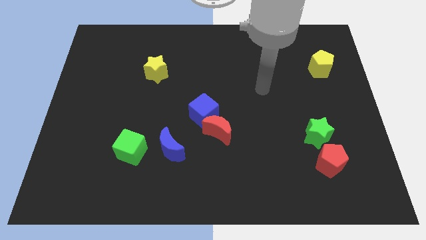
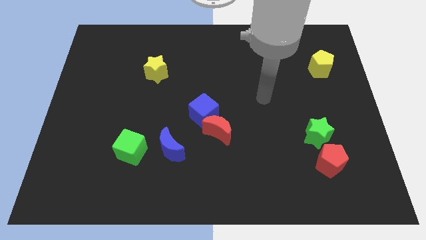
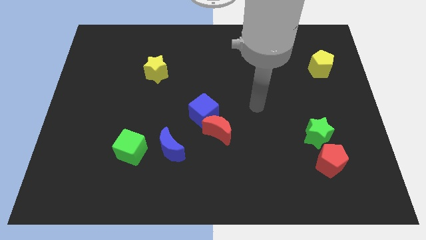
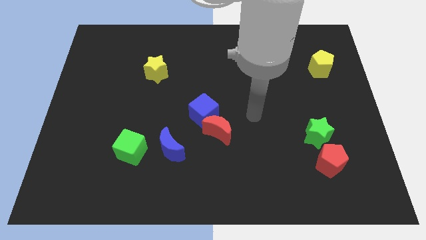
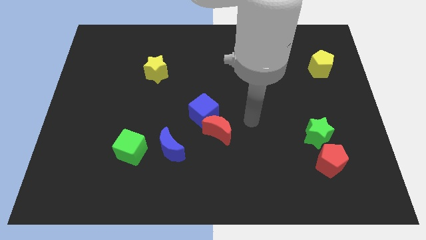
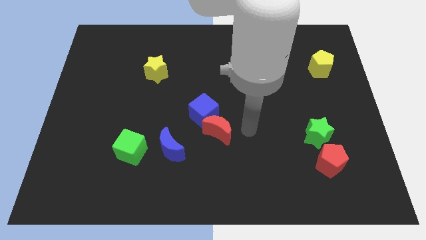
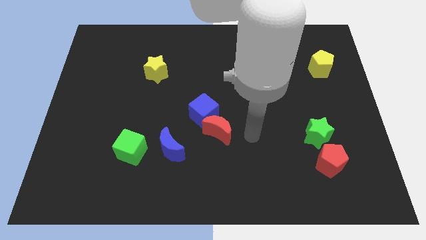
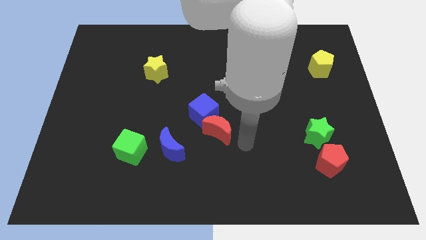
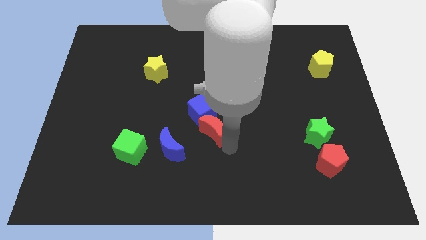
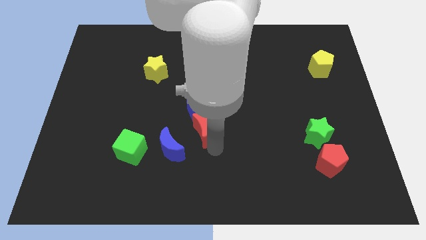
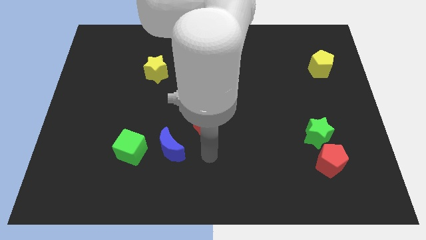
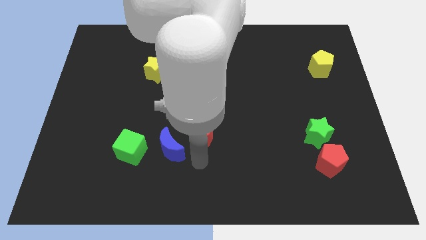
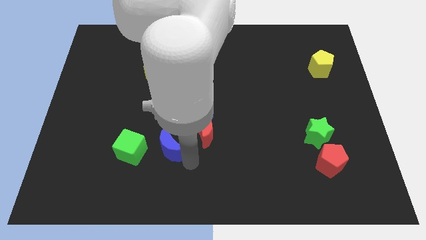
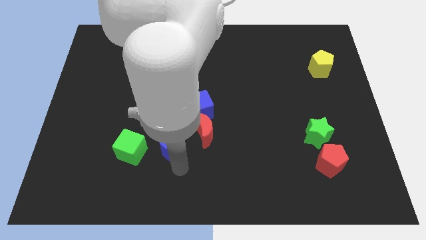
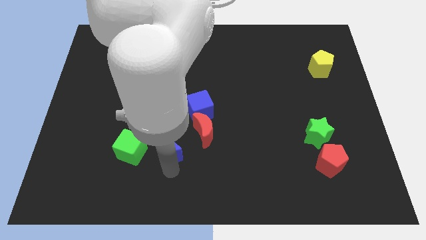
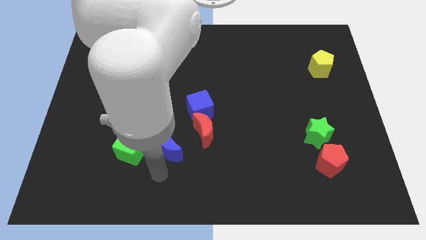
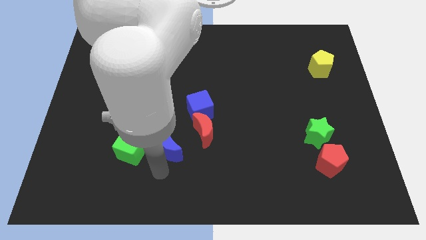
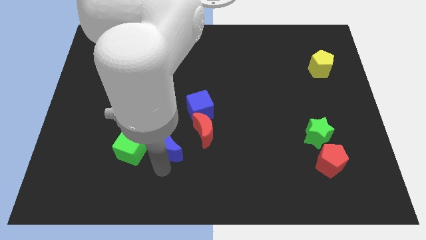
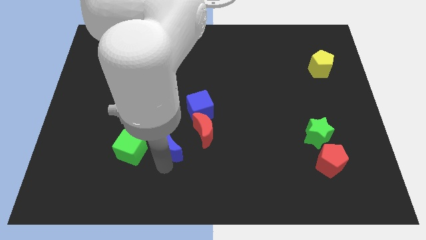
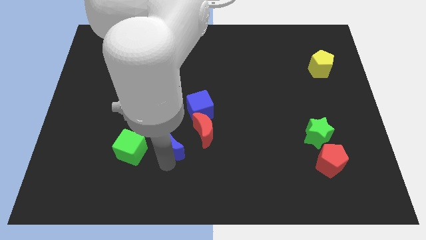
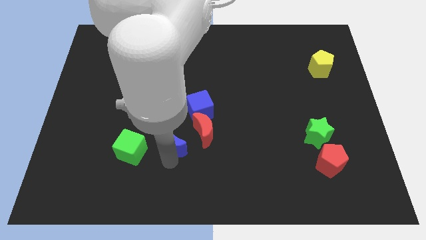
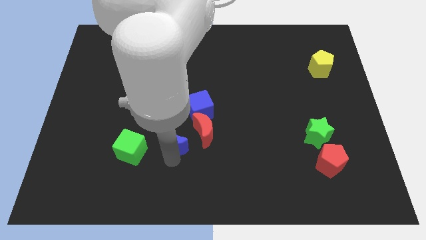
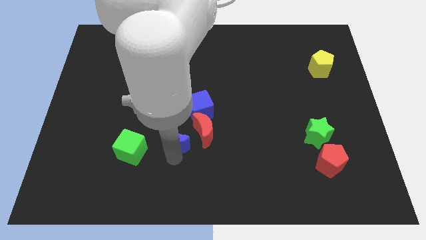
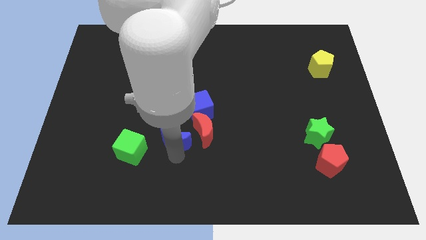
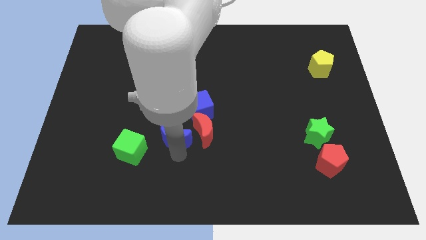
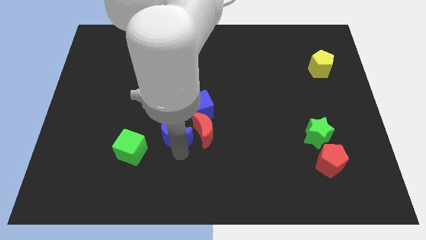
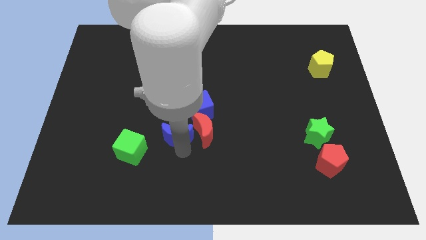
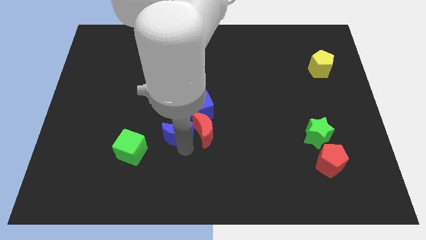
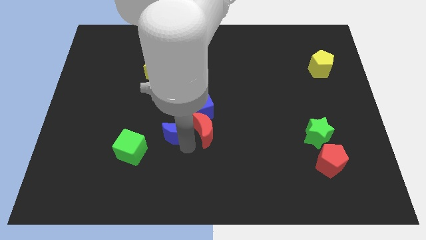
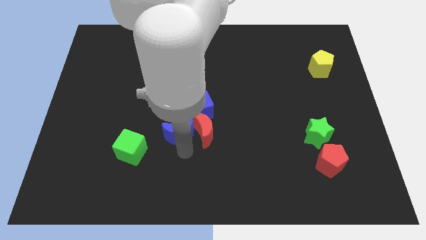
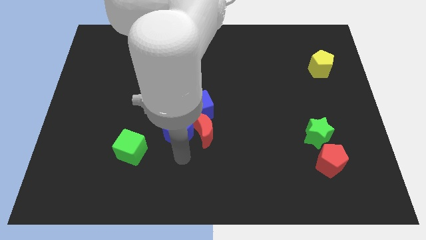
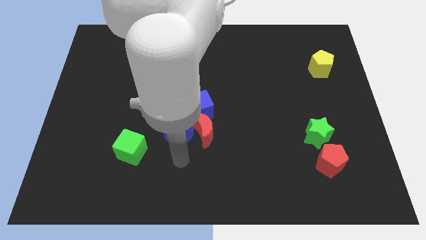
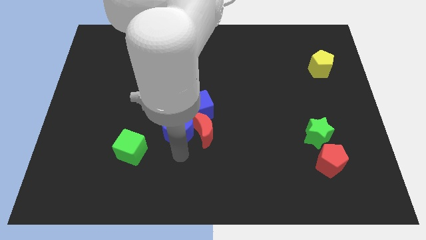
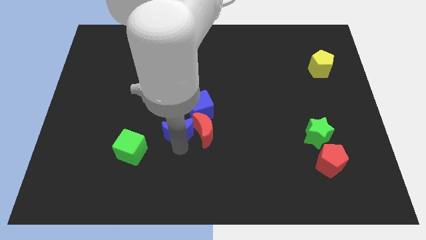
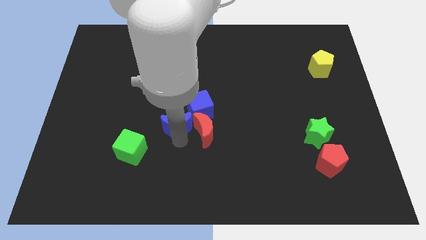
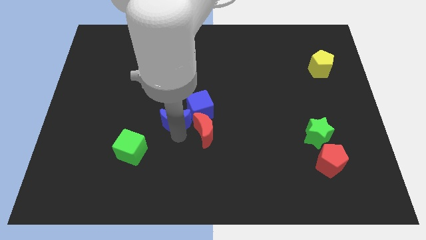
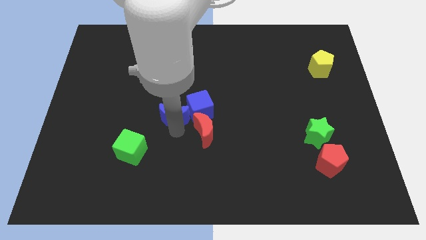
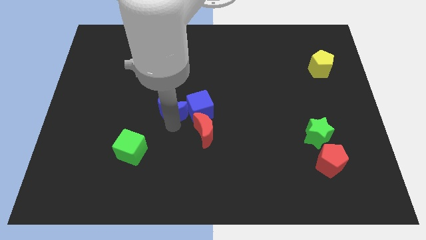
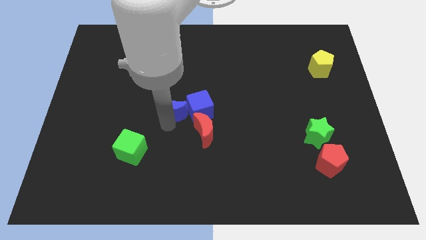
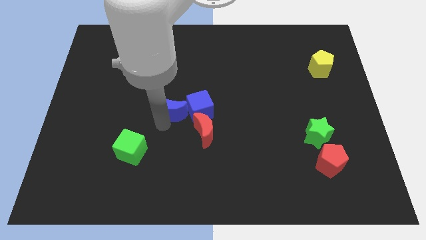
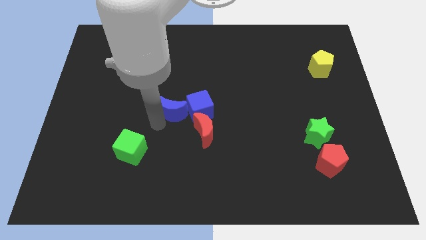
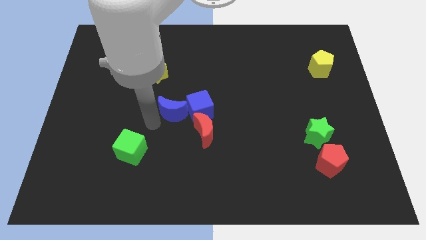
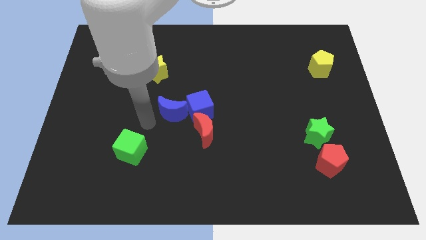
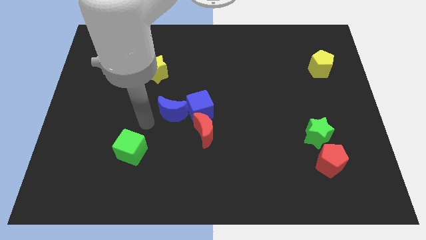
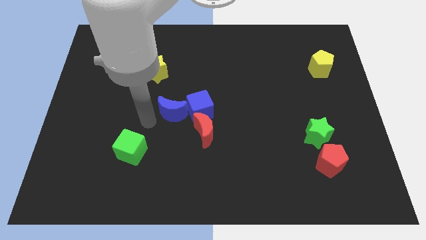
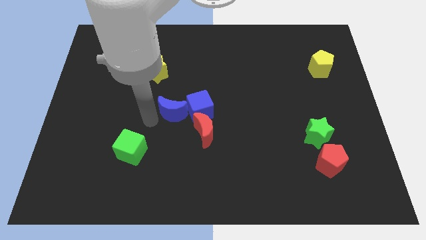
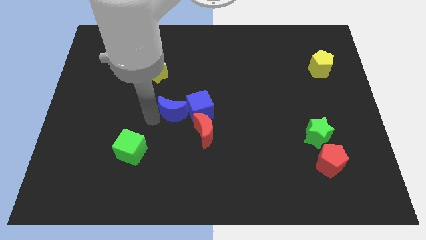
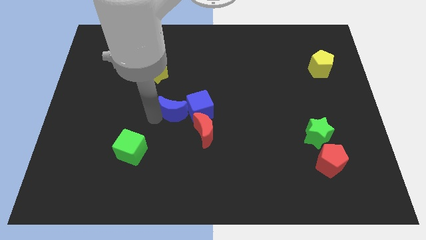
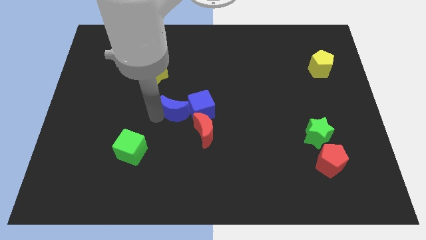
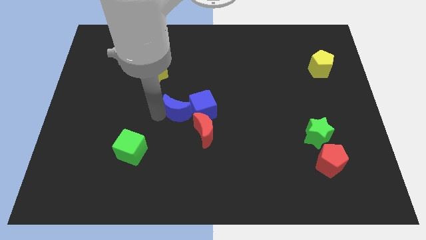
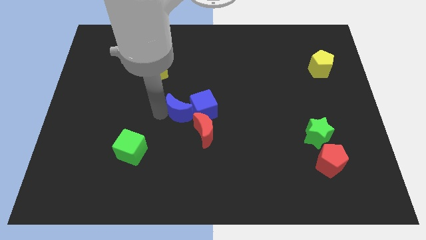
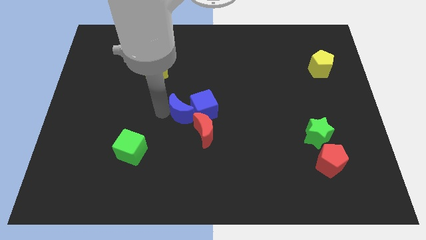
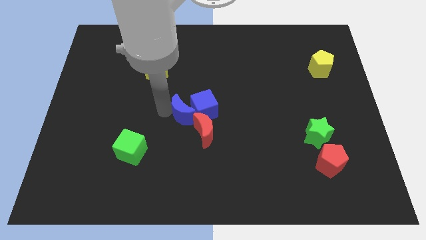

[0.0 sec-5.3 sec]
slightly move the blue moon upwards and then right

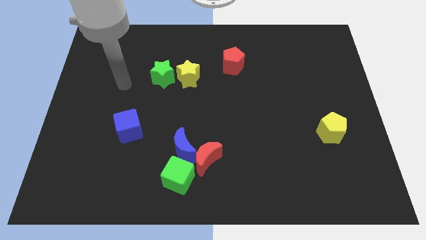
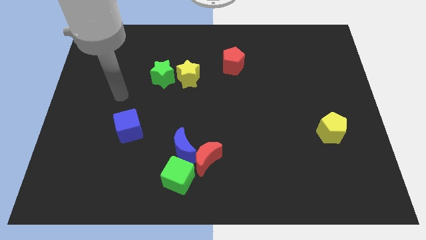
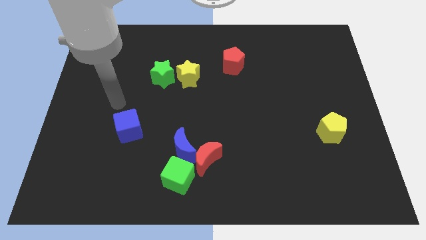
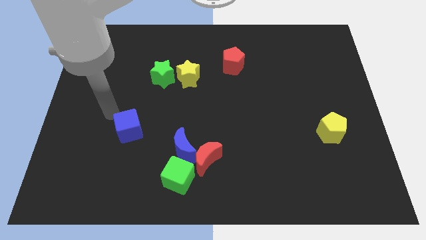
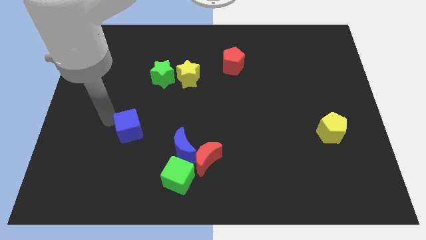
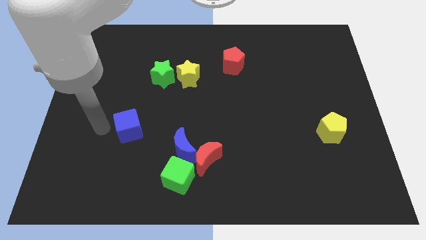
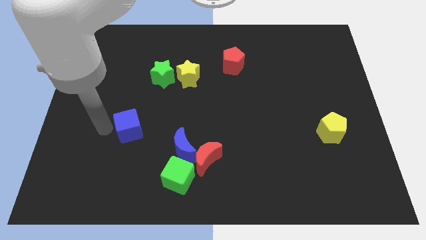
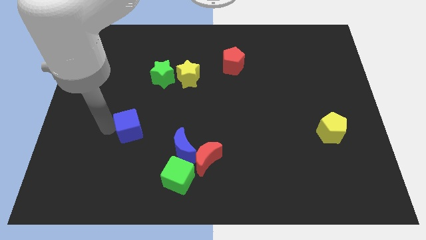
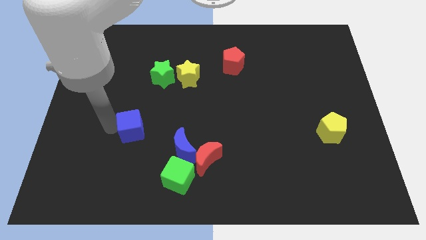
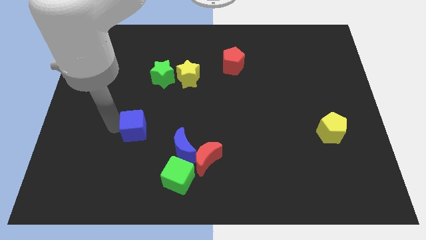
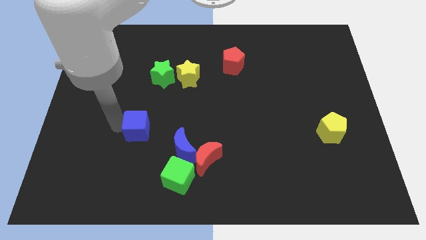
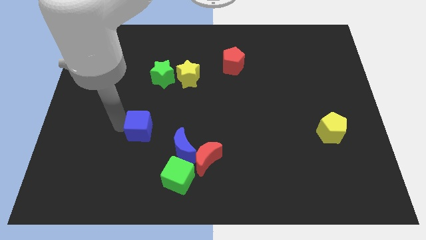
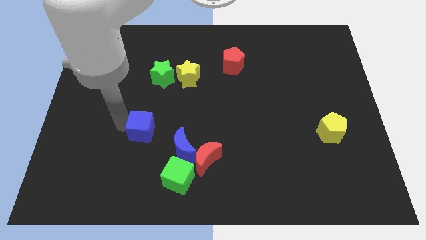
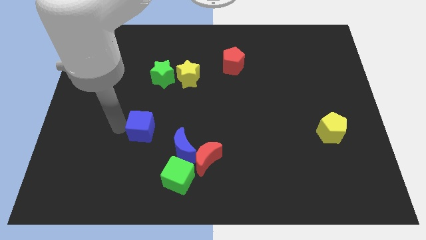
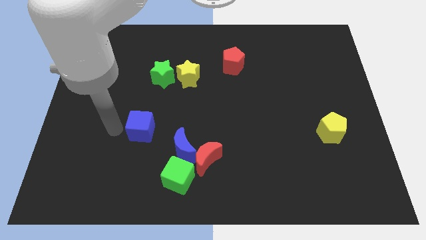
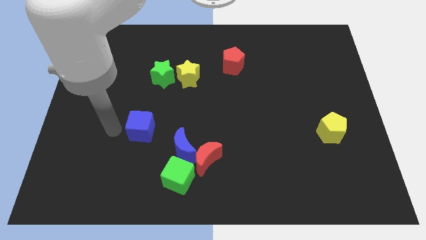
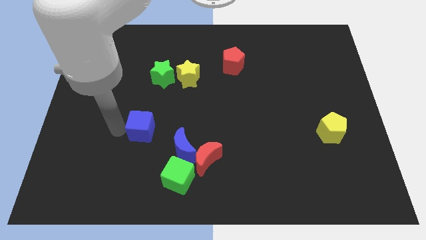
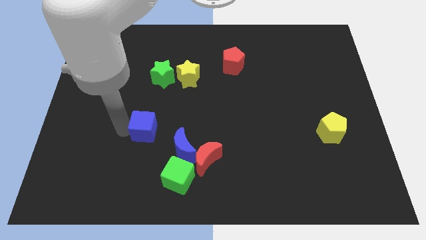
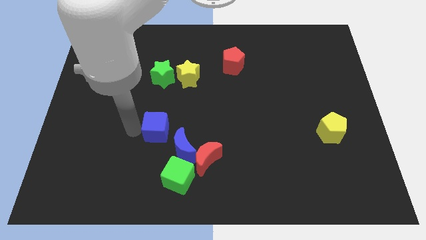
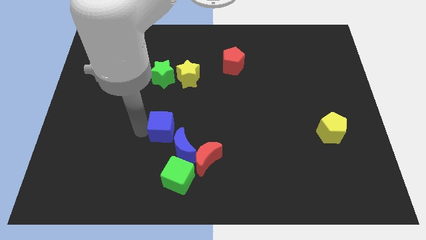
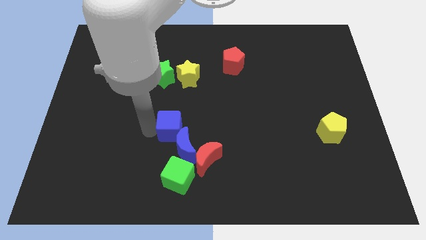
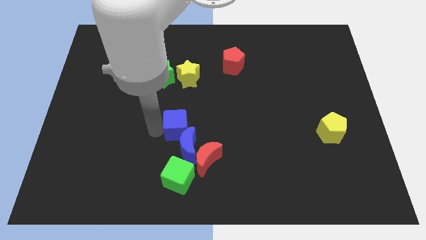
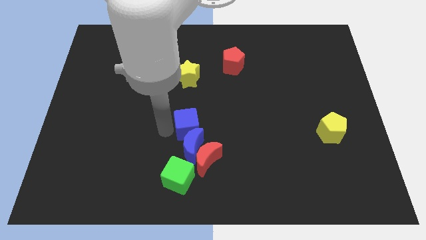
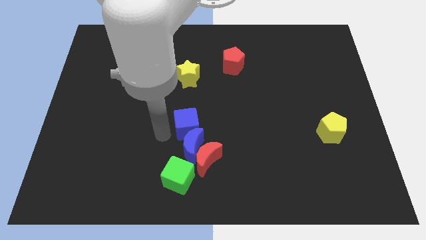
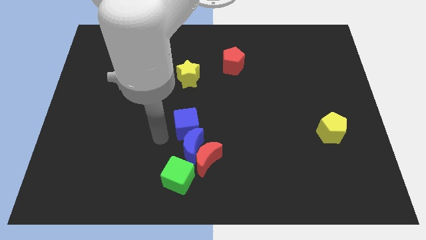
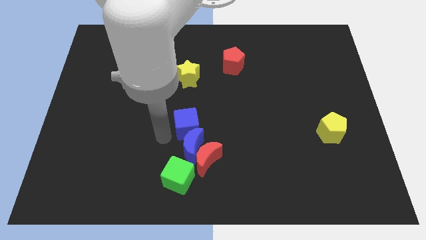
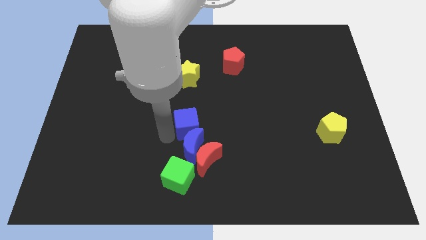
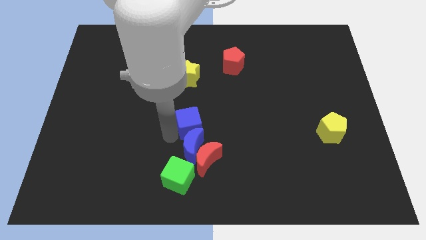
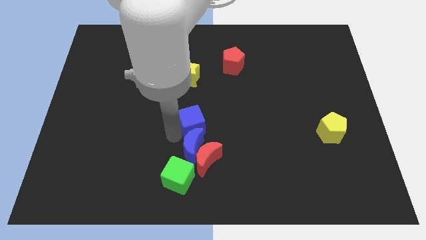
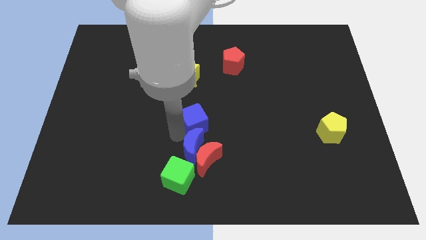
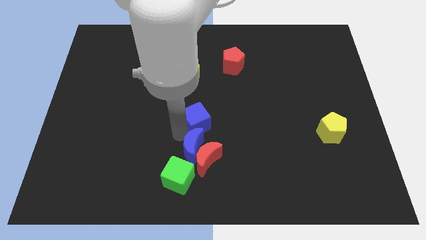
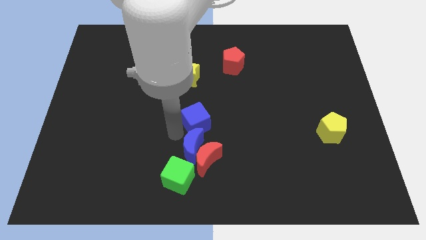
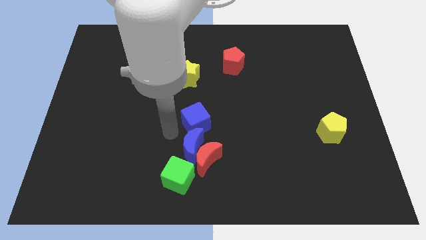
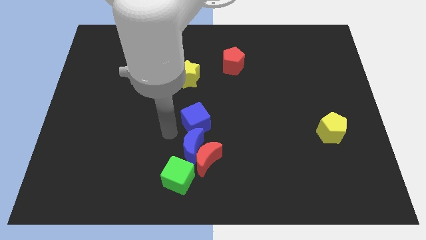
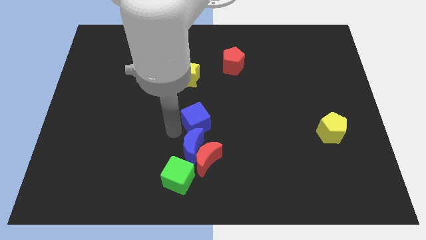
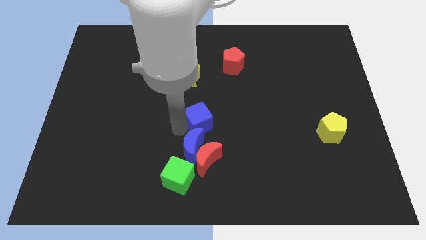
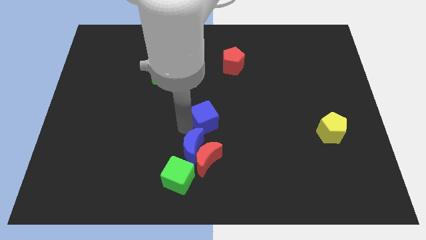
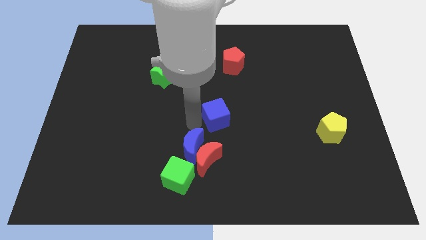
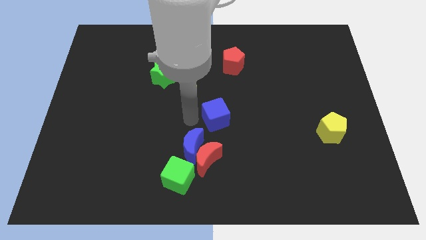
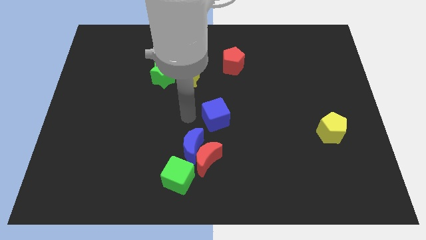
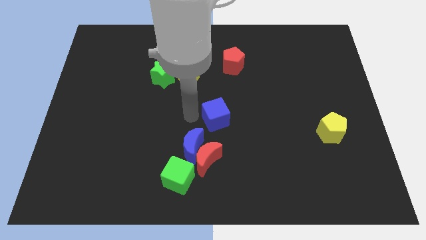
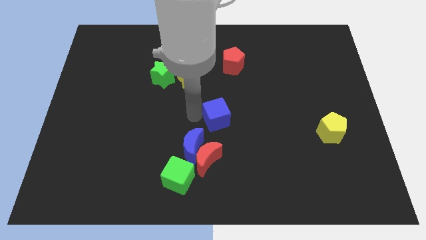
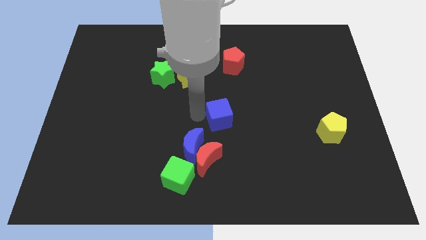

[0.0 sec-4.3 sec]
slide the blue cube right
